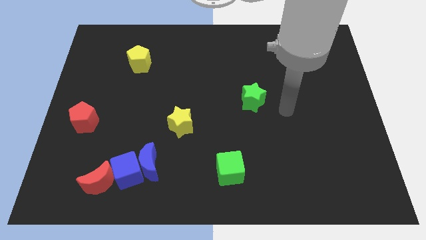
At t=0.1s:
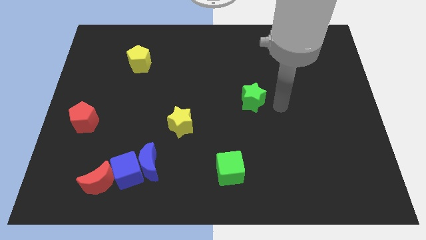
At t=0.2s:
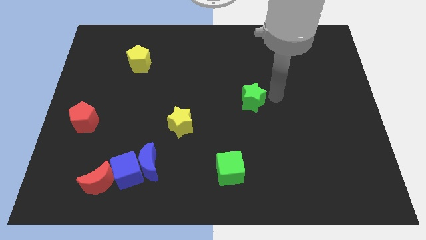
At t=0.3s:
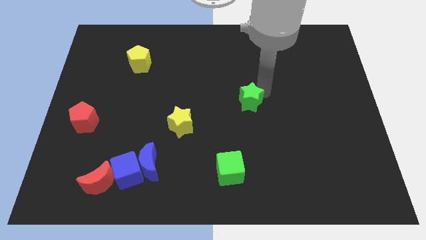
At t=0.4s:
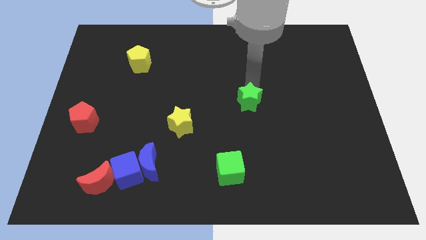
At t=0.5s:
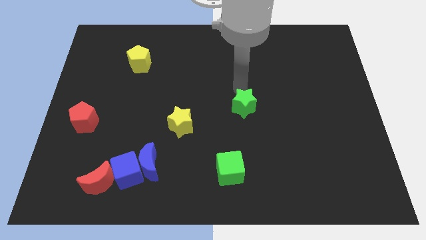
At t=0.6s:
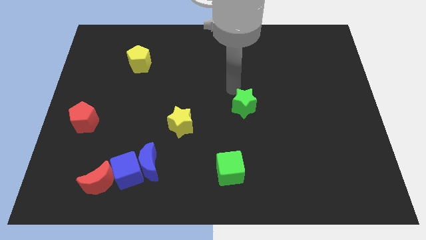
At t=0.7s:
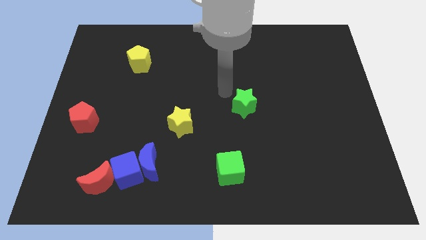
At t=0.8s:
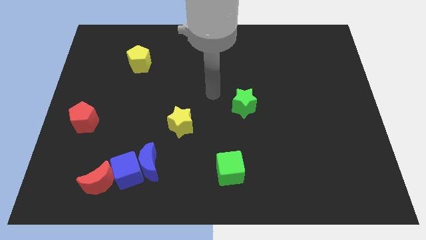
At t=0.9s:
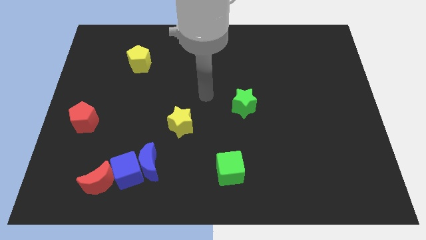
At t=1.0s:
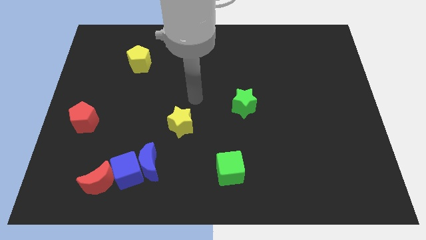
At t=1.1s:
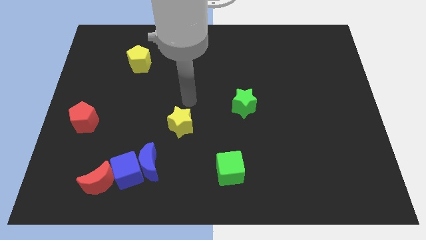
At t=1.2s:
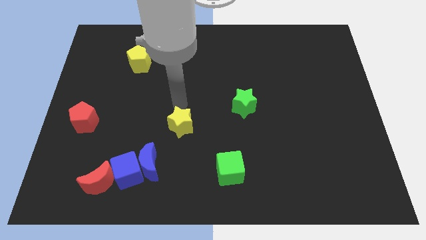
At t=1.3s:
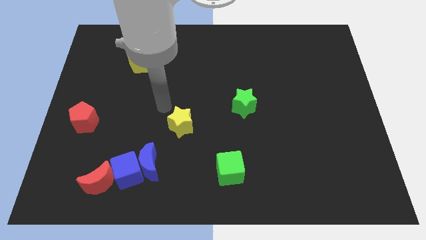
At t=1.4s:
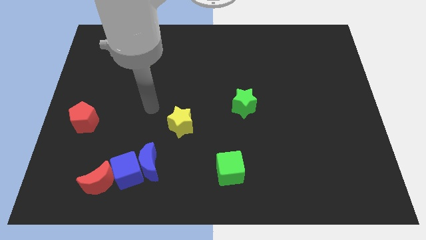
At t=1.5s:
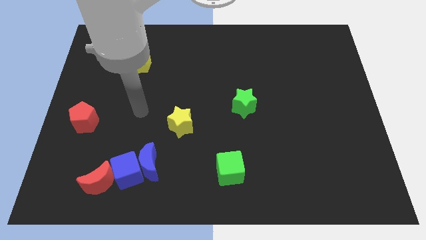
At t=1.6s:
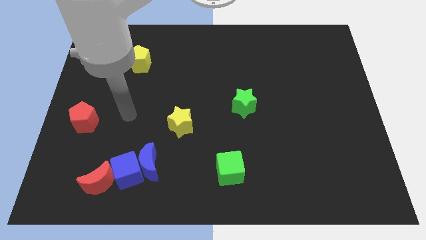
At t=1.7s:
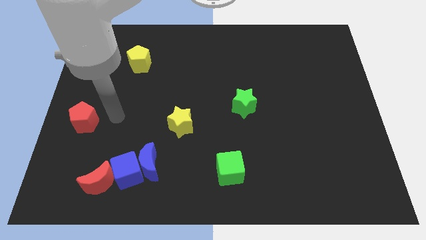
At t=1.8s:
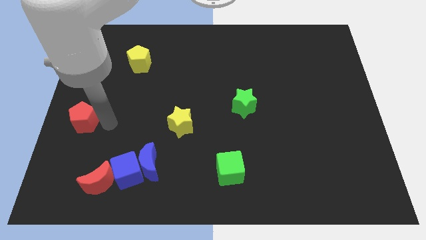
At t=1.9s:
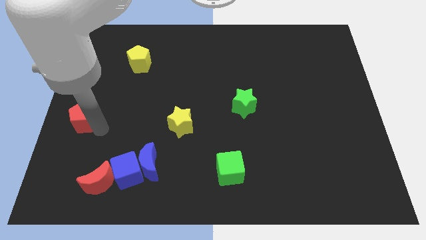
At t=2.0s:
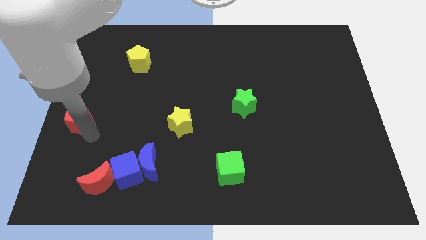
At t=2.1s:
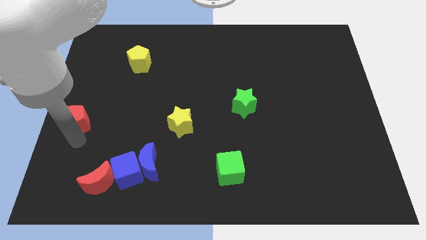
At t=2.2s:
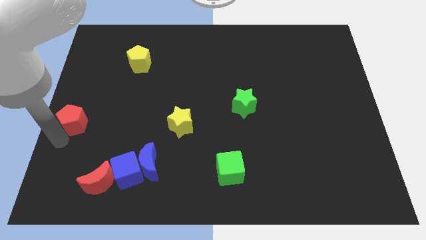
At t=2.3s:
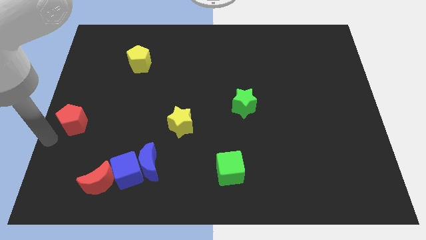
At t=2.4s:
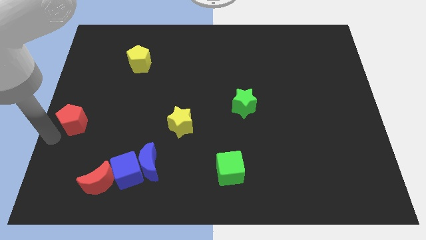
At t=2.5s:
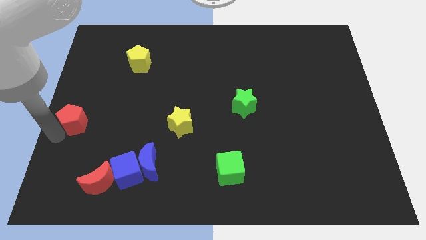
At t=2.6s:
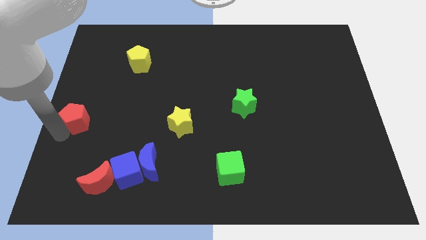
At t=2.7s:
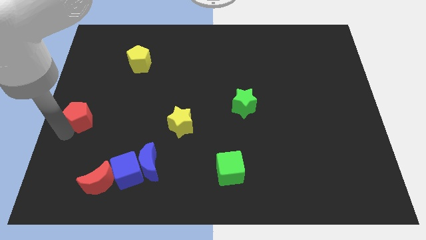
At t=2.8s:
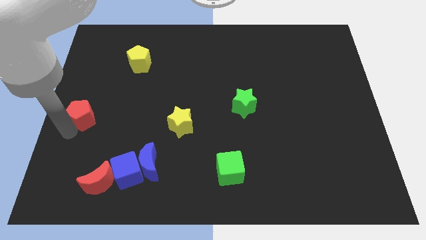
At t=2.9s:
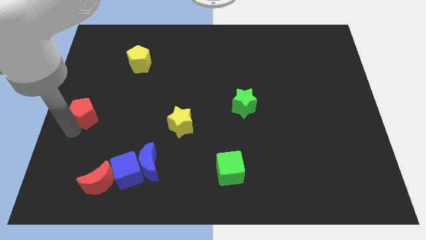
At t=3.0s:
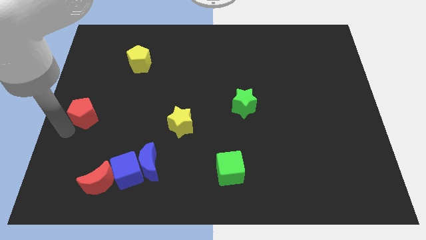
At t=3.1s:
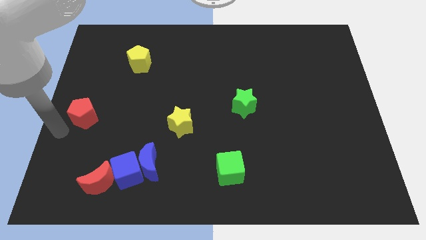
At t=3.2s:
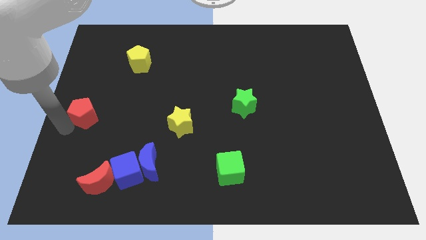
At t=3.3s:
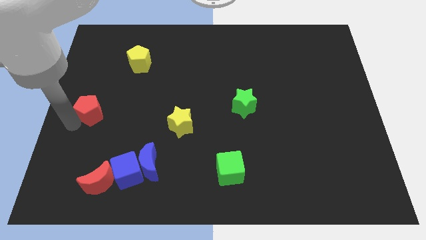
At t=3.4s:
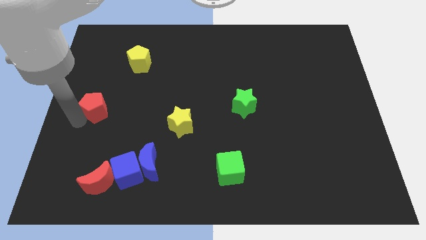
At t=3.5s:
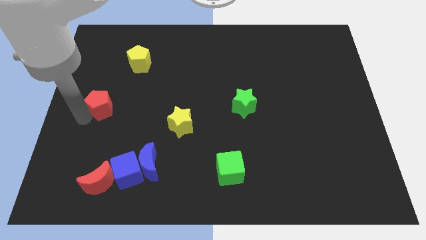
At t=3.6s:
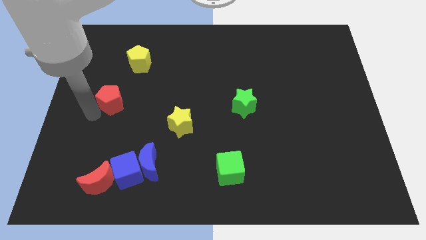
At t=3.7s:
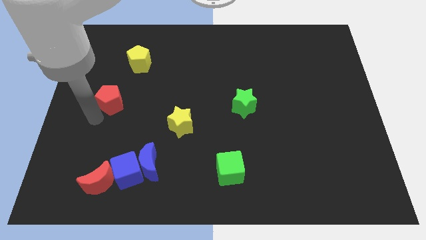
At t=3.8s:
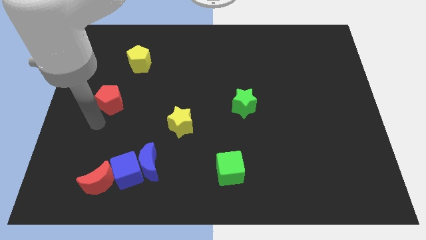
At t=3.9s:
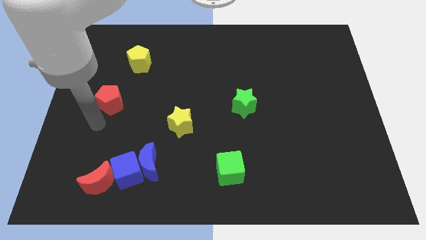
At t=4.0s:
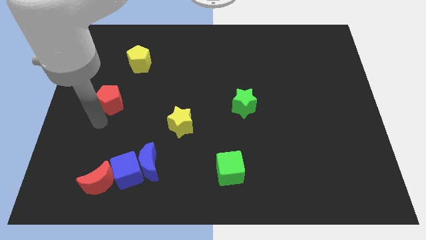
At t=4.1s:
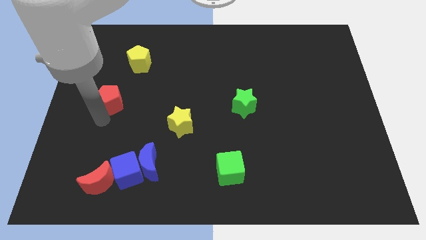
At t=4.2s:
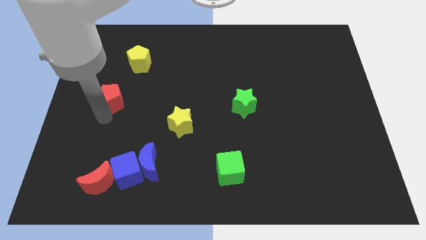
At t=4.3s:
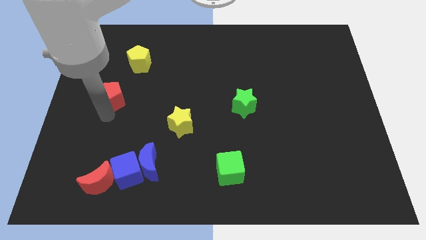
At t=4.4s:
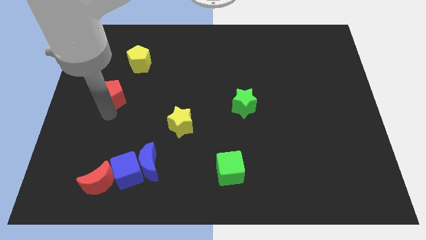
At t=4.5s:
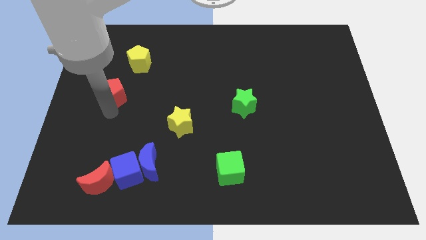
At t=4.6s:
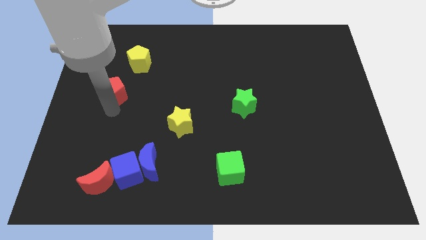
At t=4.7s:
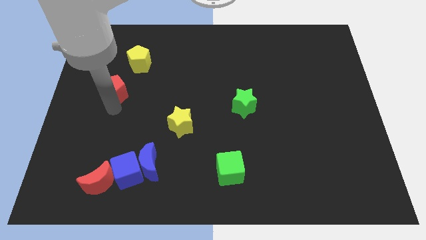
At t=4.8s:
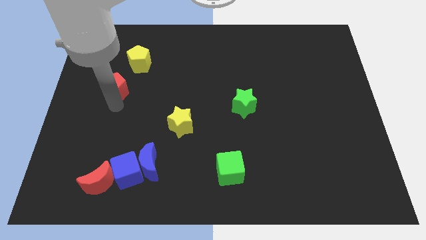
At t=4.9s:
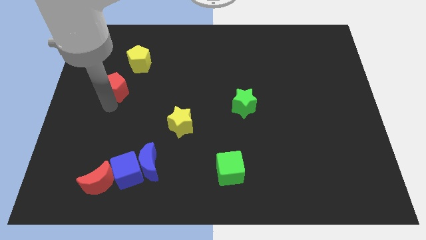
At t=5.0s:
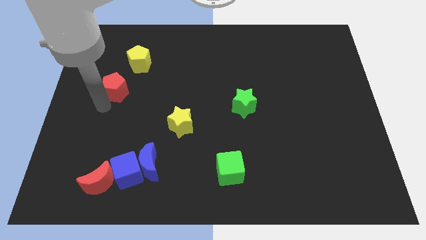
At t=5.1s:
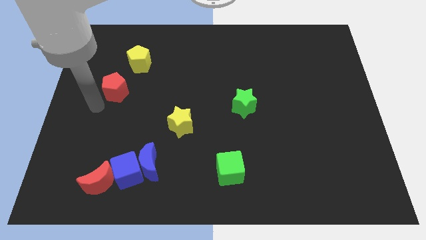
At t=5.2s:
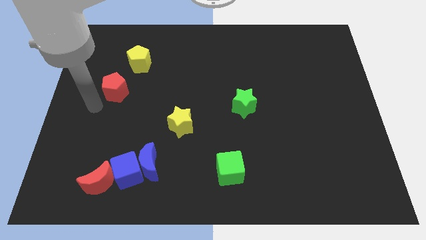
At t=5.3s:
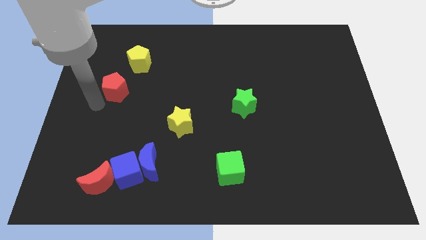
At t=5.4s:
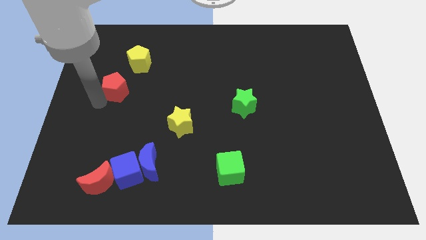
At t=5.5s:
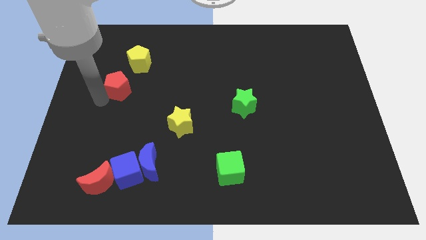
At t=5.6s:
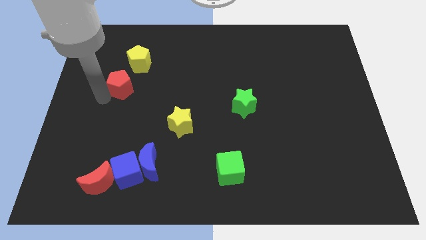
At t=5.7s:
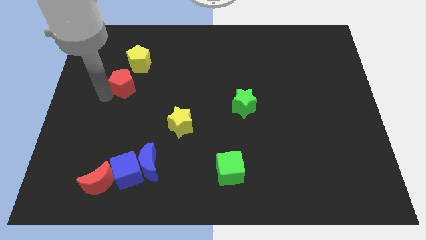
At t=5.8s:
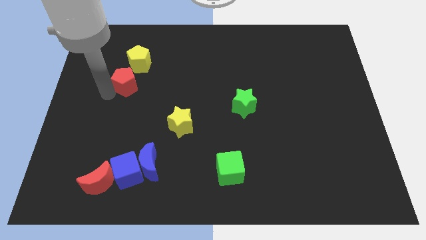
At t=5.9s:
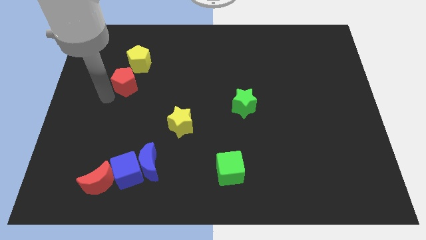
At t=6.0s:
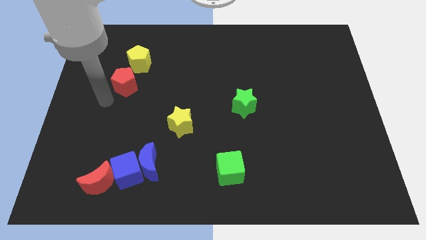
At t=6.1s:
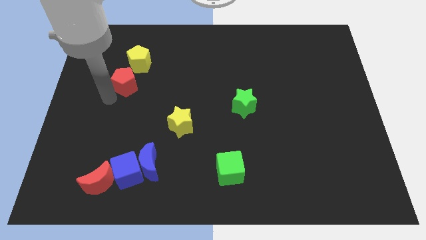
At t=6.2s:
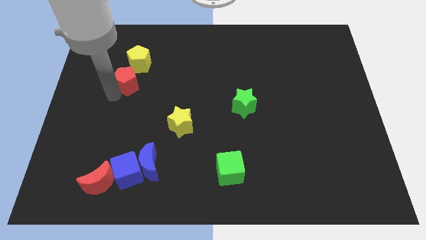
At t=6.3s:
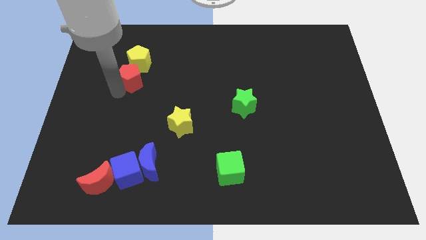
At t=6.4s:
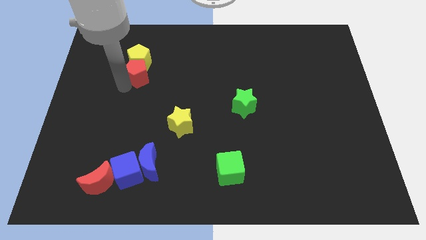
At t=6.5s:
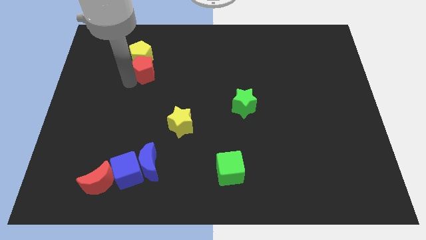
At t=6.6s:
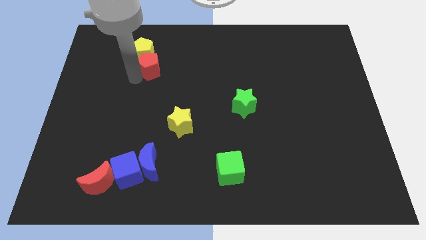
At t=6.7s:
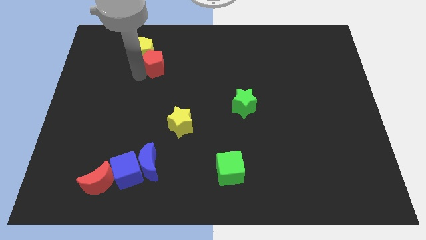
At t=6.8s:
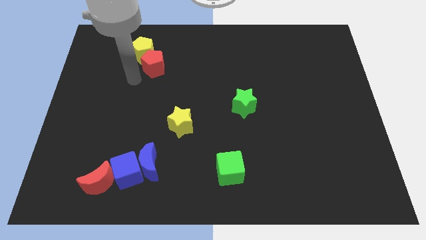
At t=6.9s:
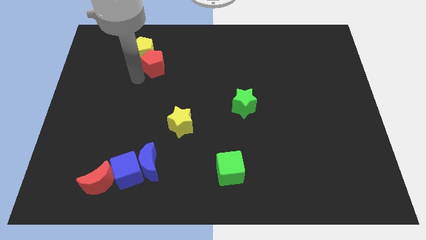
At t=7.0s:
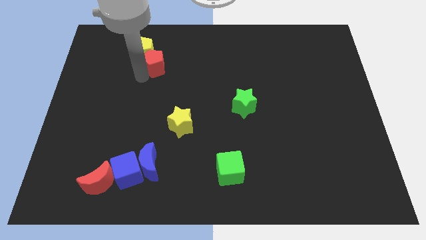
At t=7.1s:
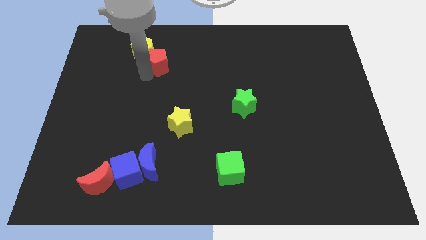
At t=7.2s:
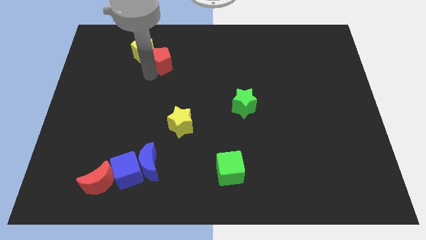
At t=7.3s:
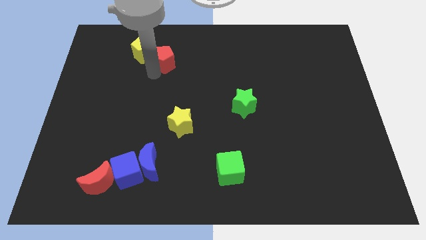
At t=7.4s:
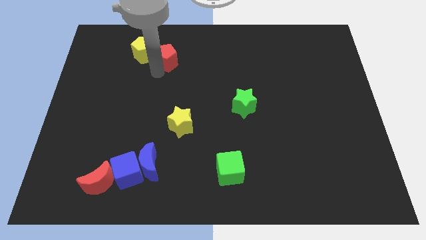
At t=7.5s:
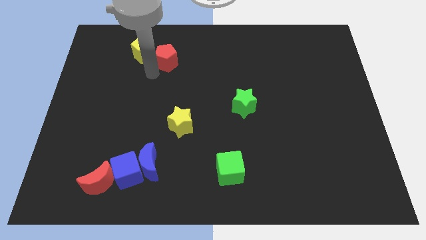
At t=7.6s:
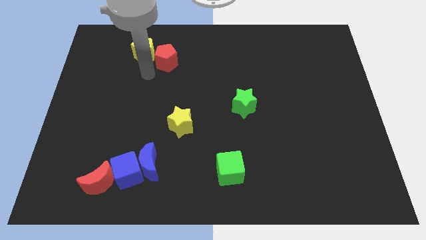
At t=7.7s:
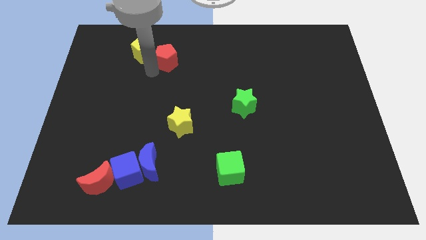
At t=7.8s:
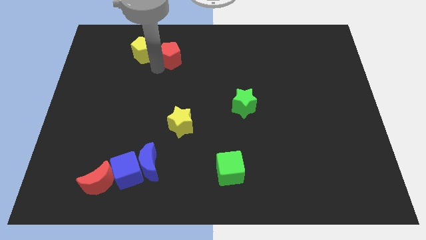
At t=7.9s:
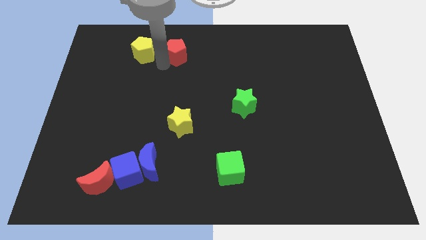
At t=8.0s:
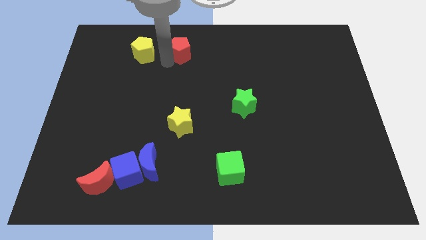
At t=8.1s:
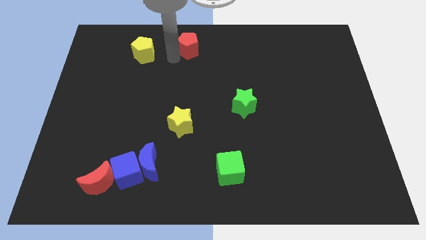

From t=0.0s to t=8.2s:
slide the red pentagon to the towards your base
